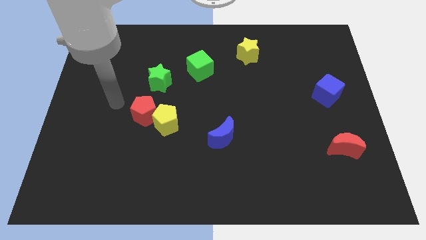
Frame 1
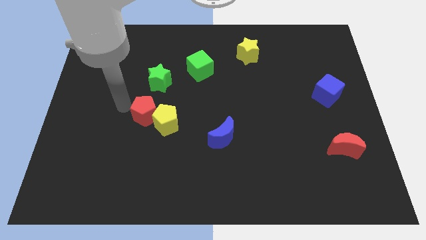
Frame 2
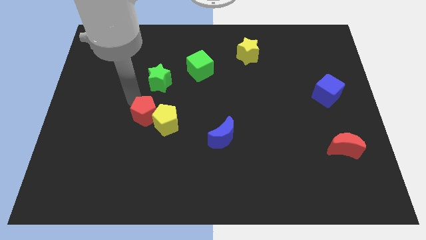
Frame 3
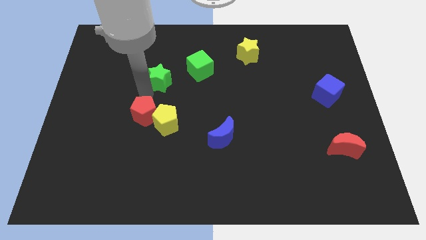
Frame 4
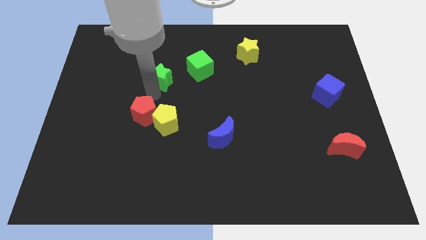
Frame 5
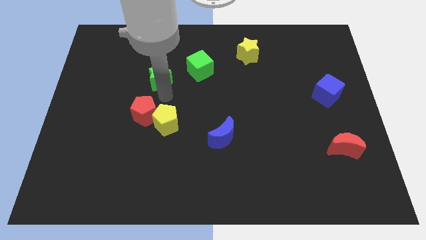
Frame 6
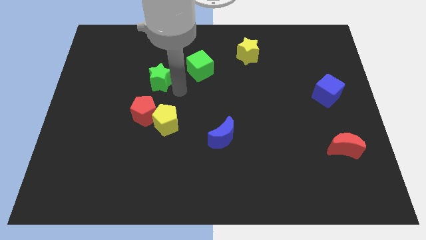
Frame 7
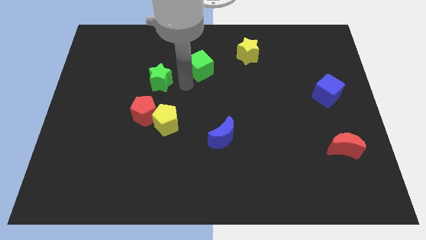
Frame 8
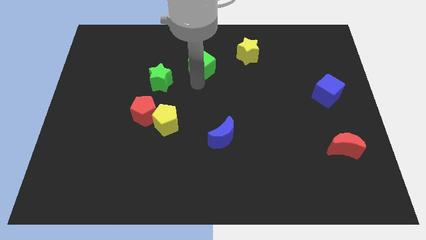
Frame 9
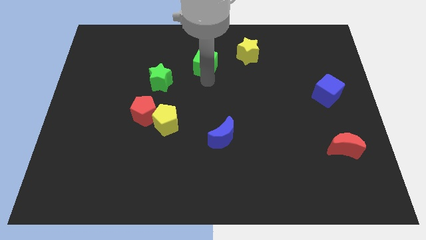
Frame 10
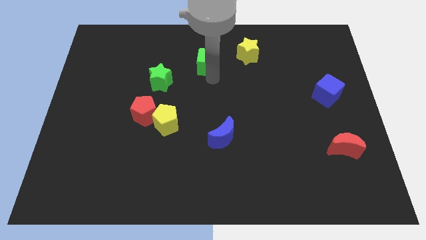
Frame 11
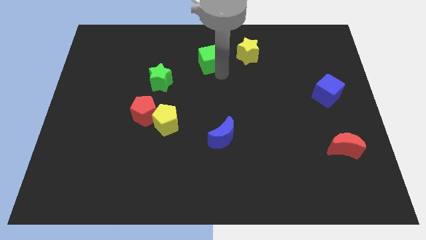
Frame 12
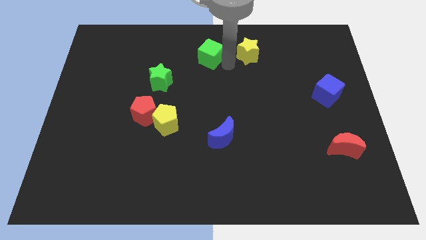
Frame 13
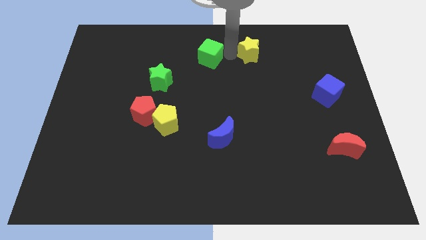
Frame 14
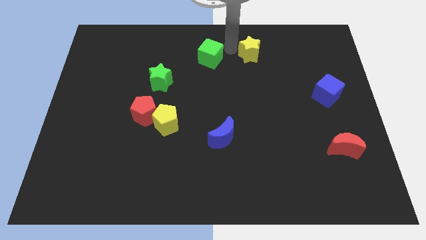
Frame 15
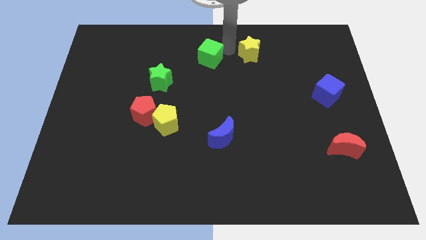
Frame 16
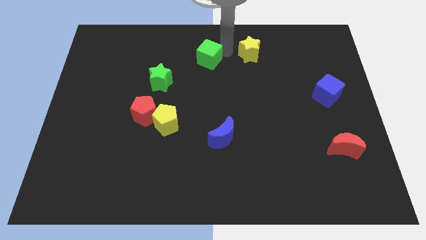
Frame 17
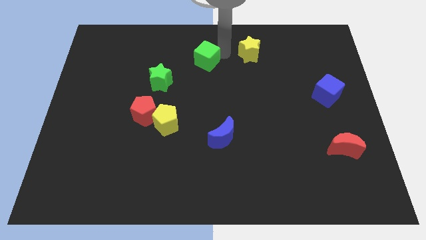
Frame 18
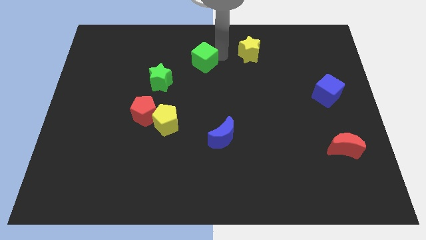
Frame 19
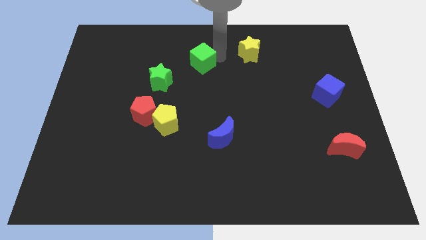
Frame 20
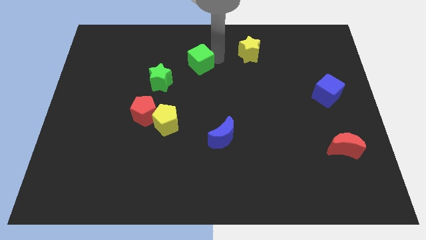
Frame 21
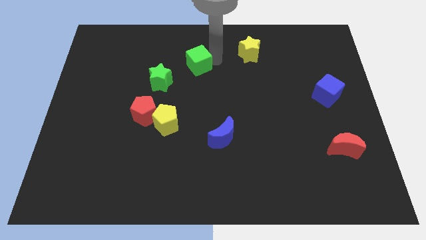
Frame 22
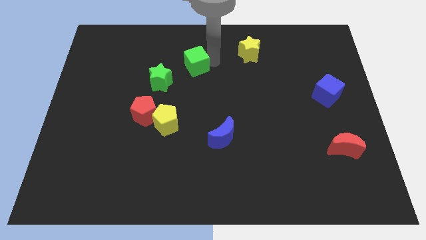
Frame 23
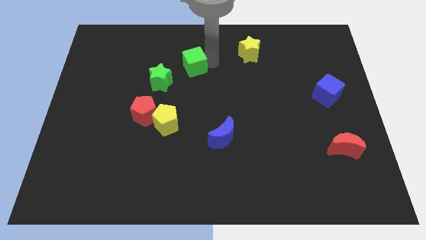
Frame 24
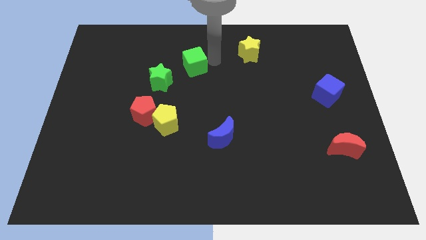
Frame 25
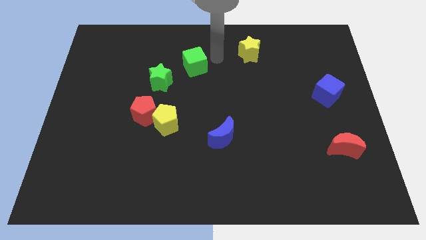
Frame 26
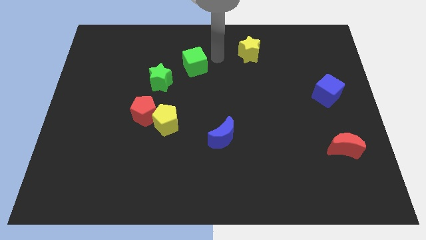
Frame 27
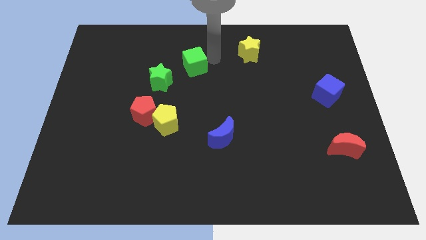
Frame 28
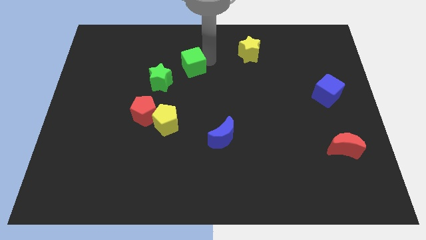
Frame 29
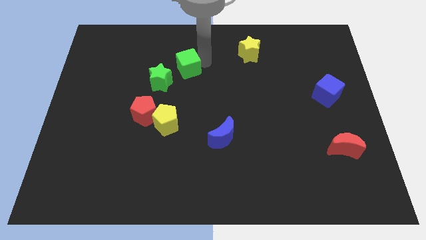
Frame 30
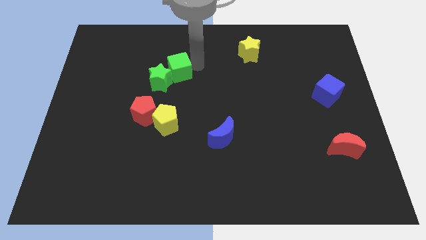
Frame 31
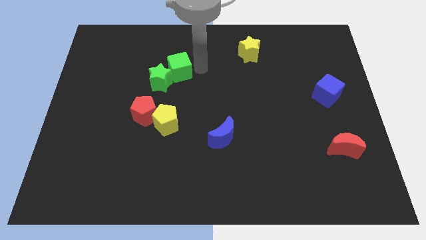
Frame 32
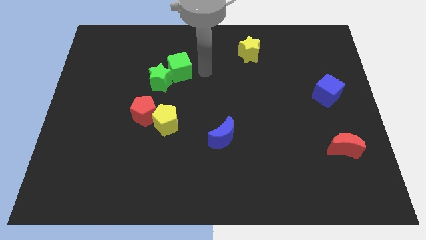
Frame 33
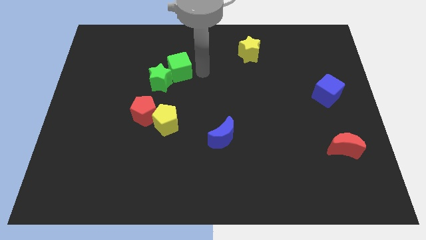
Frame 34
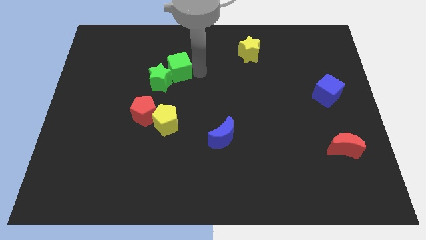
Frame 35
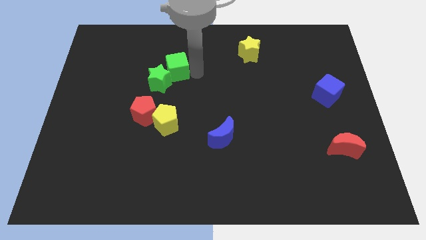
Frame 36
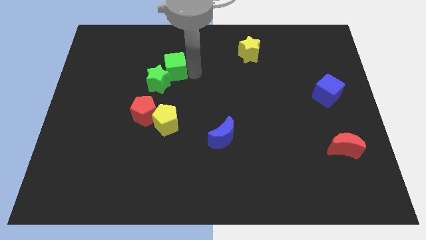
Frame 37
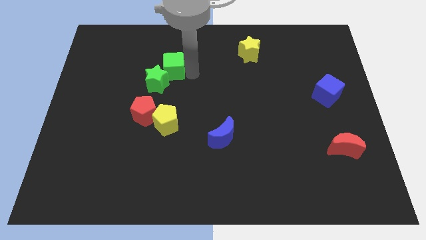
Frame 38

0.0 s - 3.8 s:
slide the green cube to the left a little bit

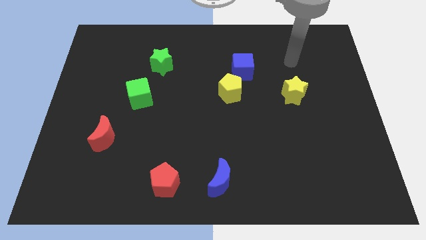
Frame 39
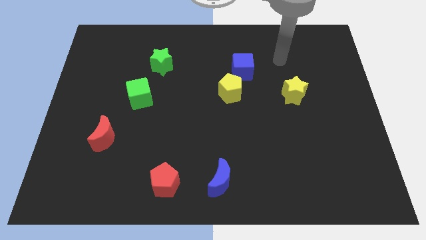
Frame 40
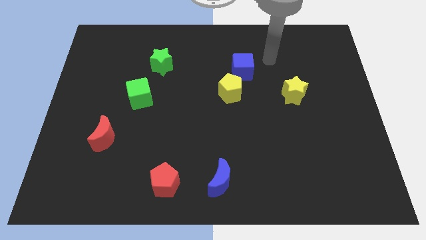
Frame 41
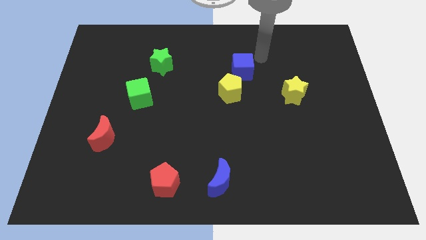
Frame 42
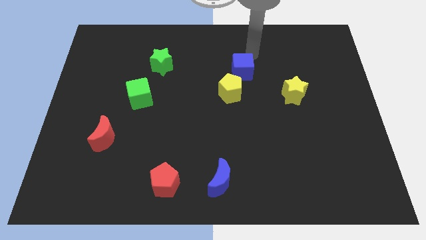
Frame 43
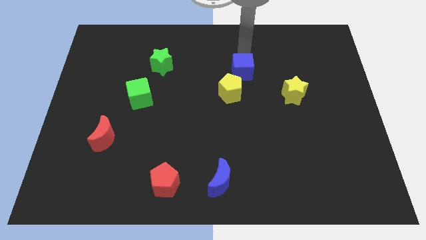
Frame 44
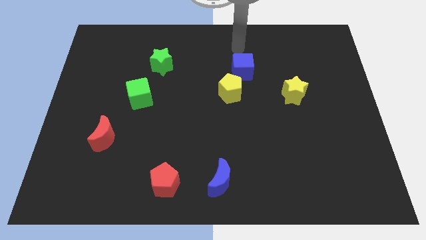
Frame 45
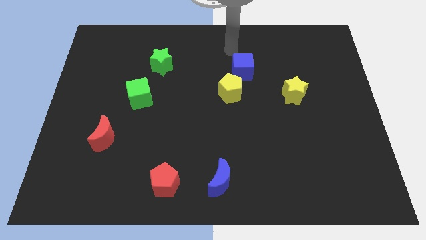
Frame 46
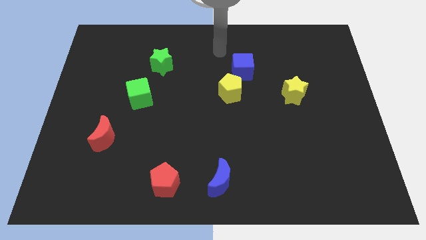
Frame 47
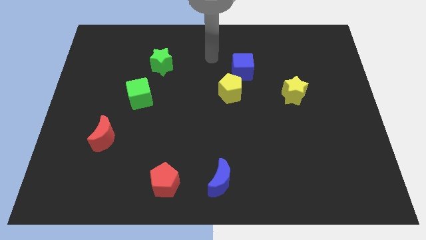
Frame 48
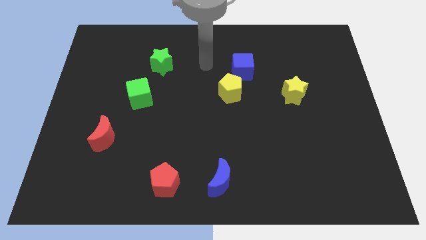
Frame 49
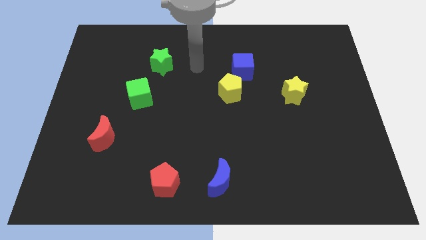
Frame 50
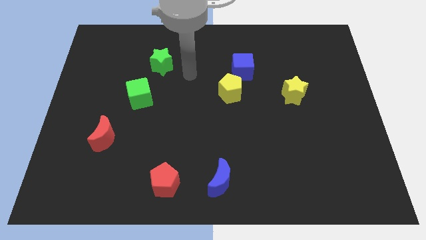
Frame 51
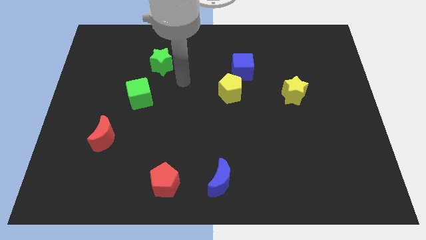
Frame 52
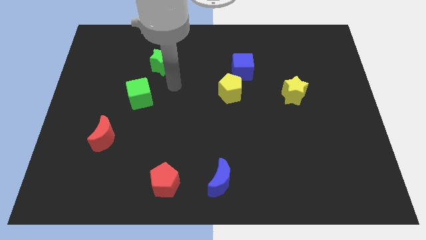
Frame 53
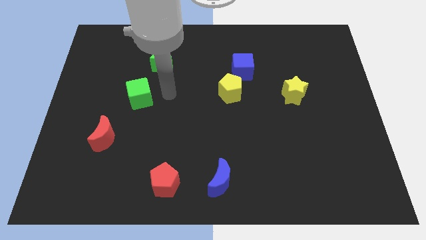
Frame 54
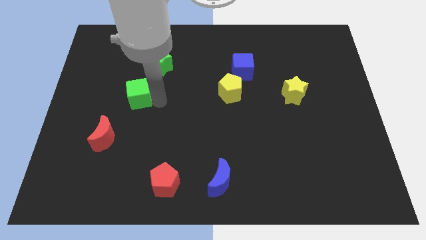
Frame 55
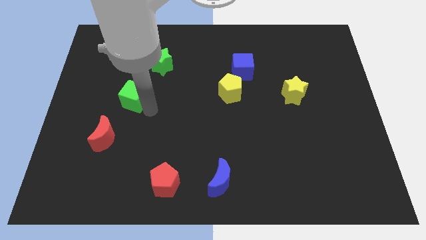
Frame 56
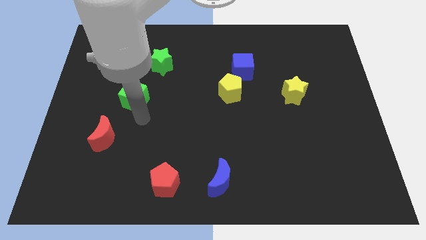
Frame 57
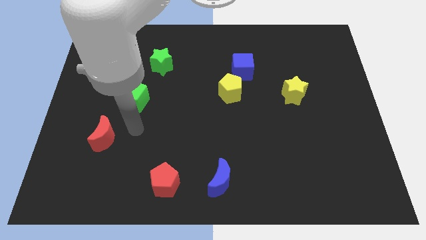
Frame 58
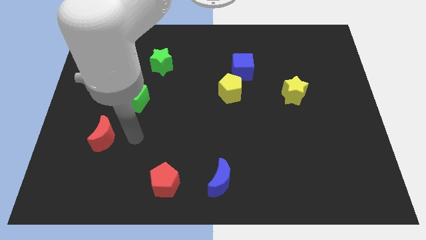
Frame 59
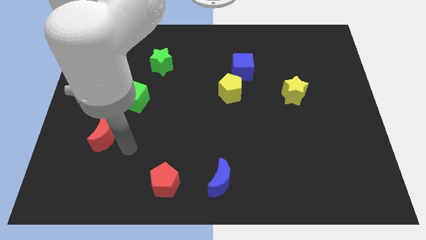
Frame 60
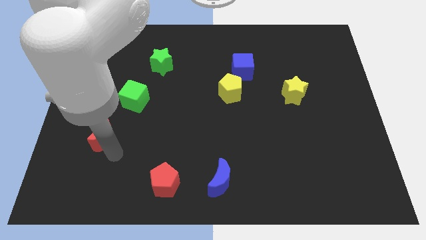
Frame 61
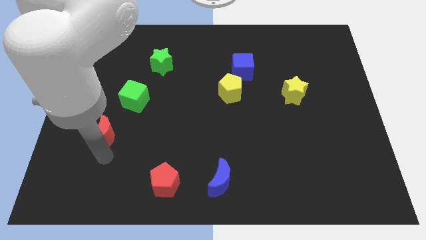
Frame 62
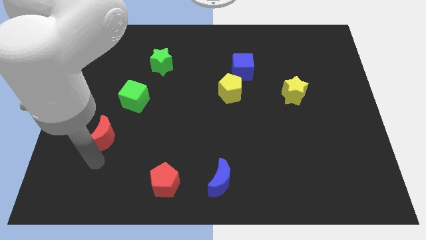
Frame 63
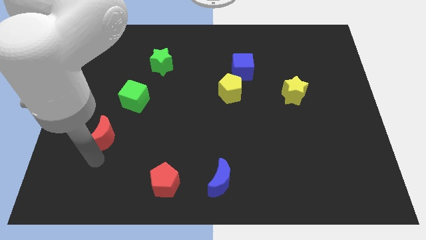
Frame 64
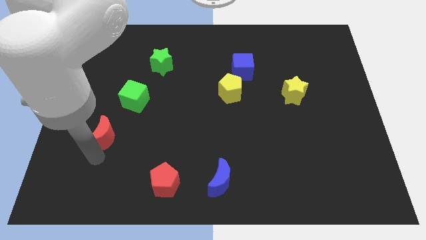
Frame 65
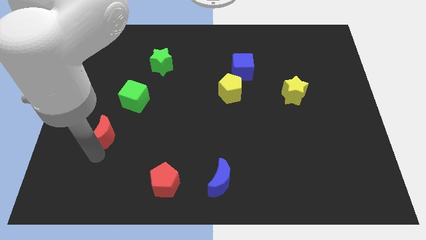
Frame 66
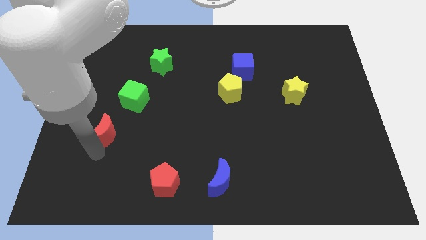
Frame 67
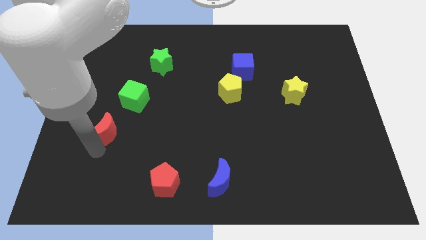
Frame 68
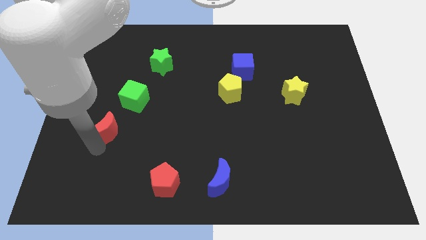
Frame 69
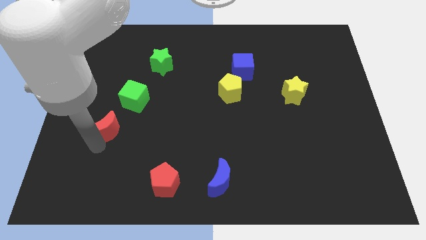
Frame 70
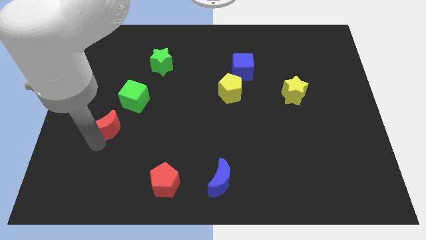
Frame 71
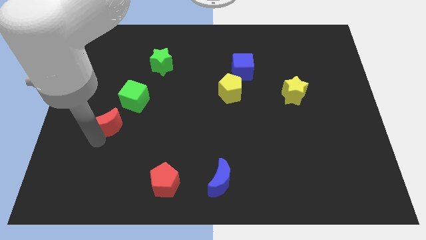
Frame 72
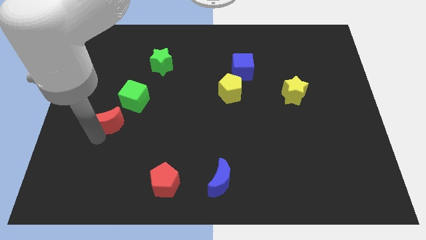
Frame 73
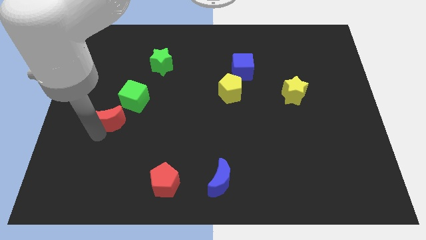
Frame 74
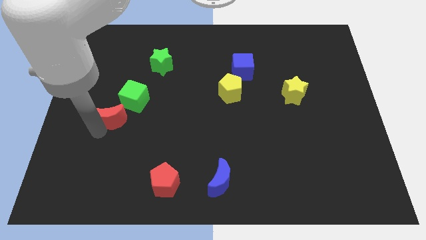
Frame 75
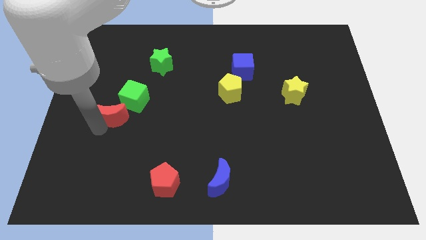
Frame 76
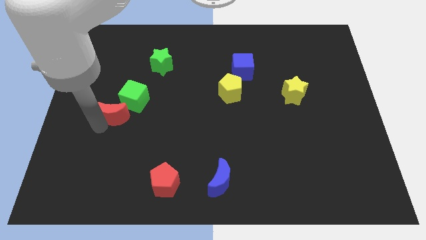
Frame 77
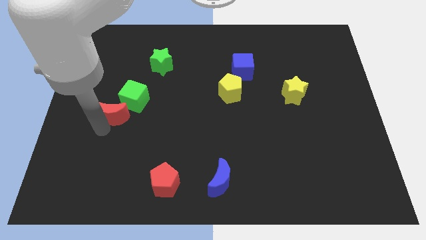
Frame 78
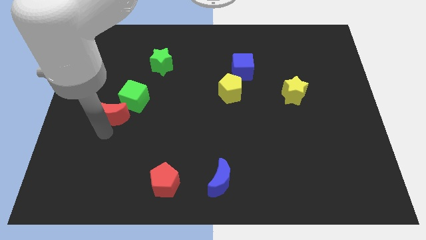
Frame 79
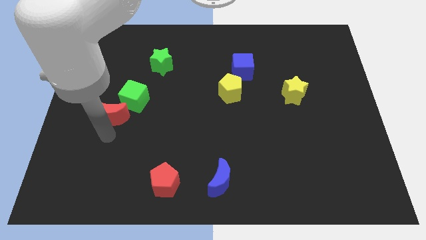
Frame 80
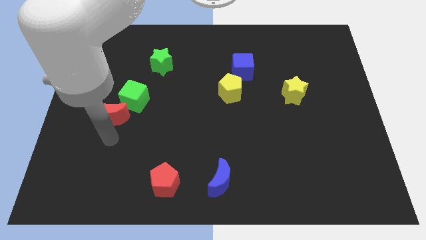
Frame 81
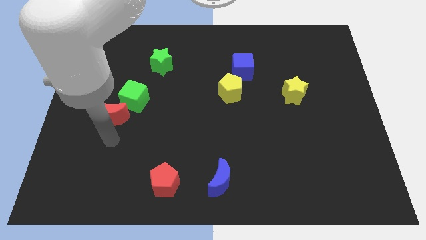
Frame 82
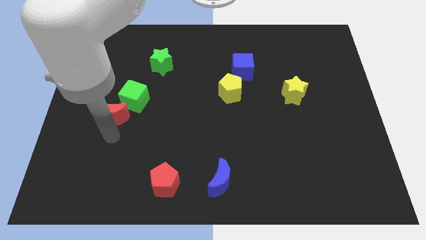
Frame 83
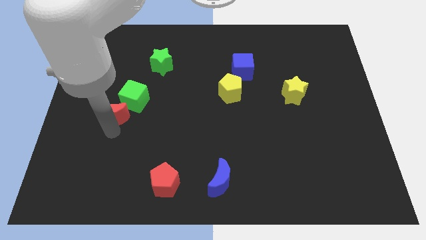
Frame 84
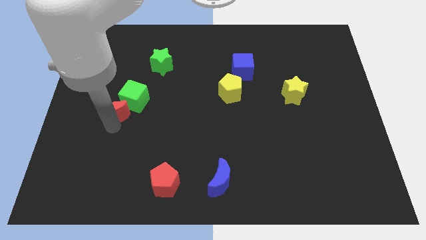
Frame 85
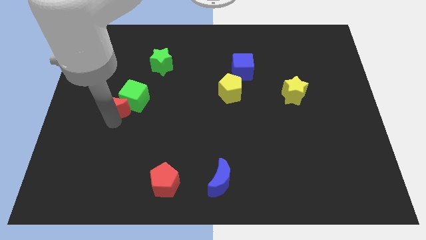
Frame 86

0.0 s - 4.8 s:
slide the red moon up a little bit
